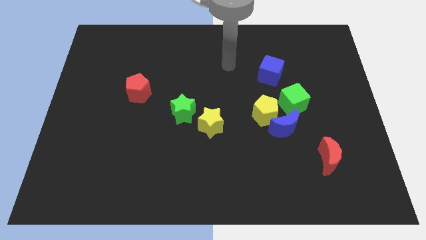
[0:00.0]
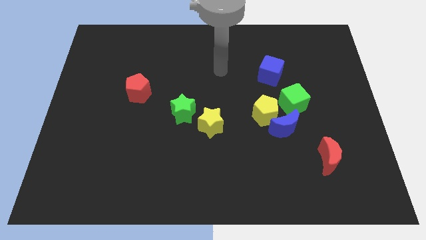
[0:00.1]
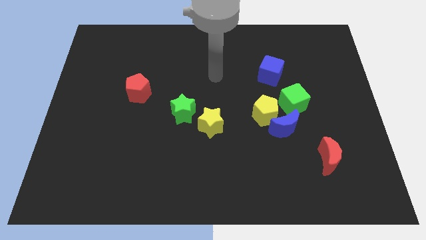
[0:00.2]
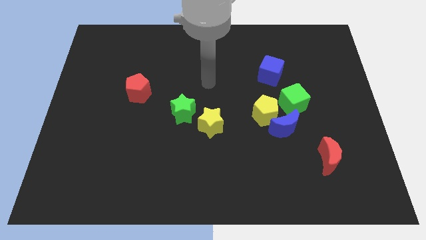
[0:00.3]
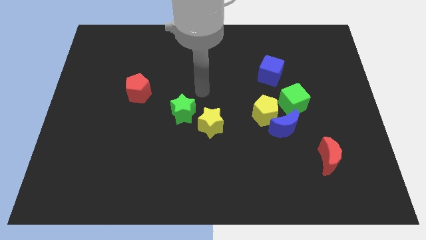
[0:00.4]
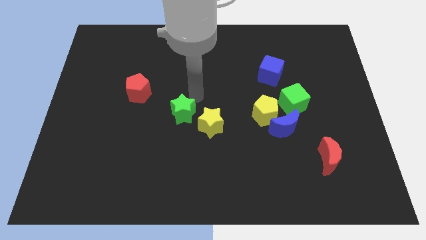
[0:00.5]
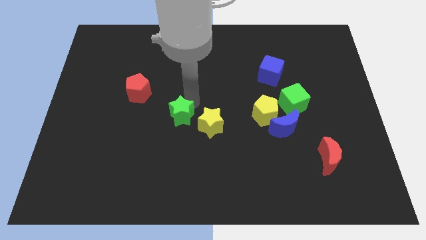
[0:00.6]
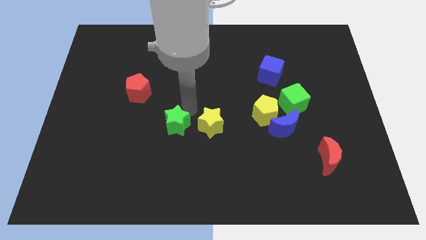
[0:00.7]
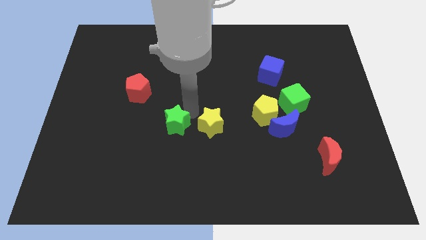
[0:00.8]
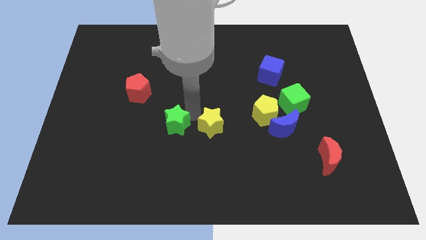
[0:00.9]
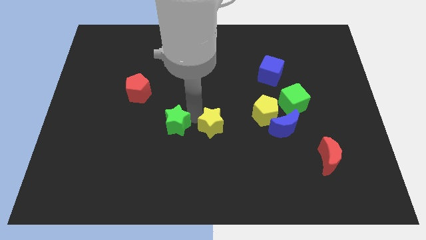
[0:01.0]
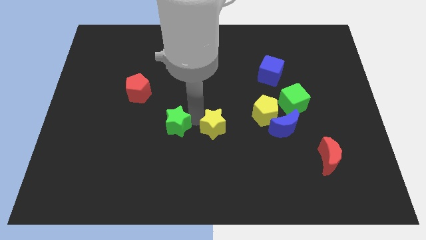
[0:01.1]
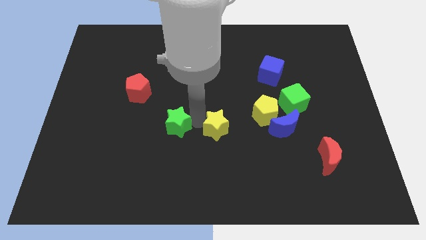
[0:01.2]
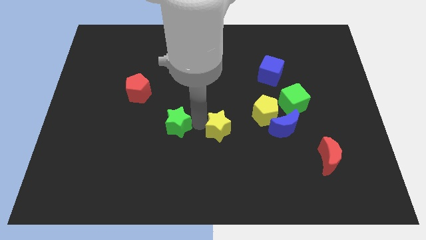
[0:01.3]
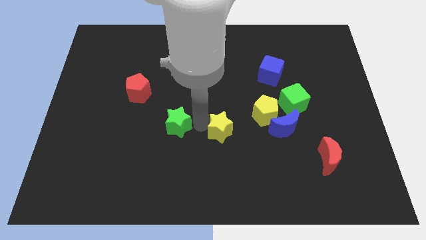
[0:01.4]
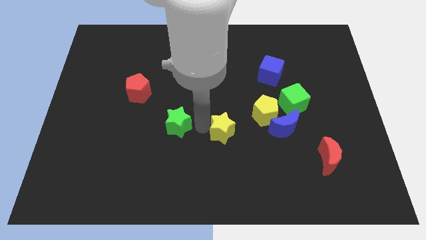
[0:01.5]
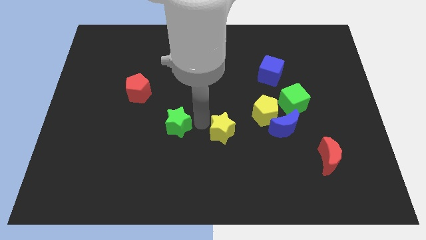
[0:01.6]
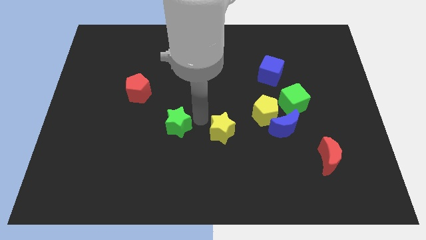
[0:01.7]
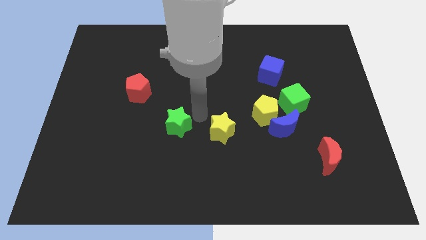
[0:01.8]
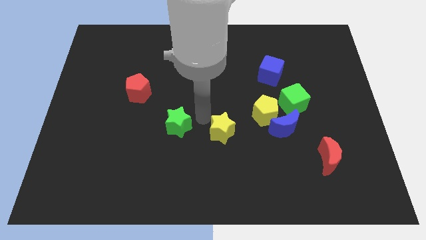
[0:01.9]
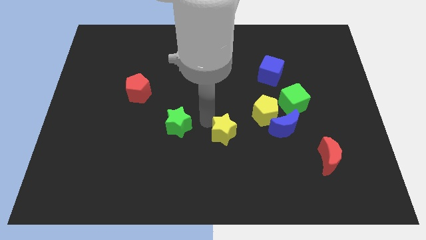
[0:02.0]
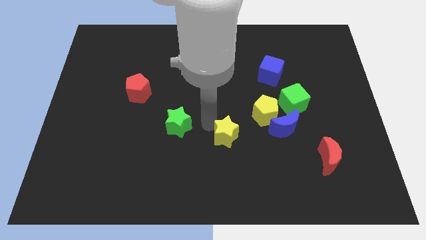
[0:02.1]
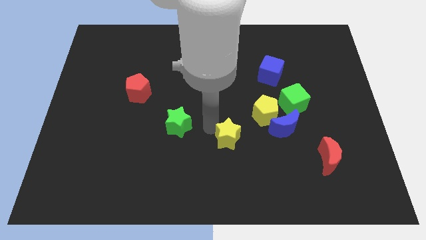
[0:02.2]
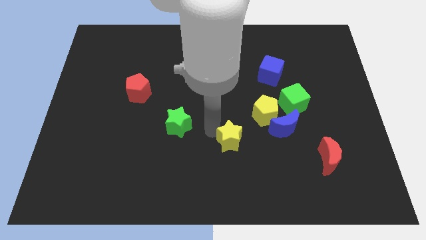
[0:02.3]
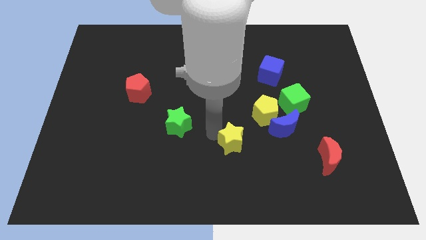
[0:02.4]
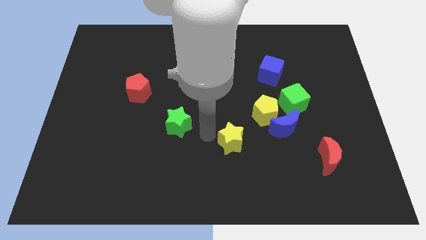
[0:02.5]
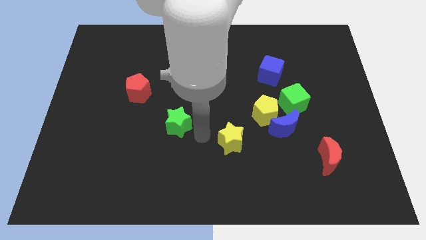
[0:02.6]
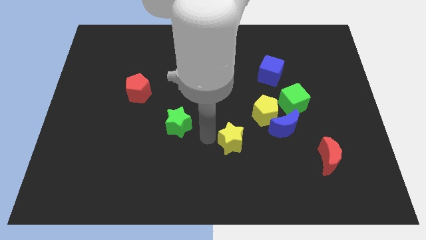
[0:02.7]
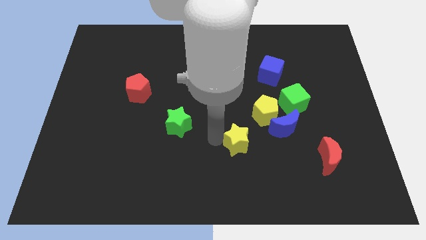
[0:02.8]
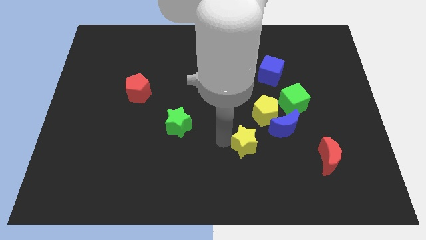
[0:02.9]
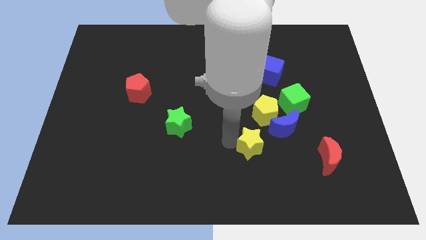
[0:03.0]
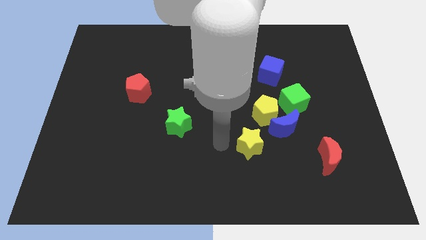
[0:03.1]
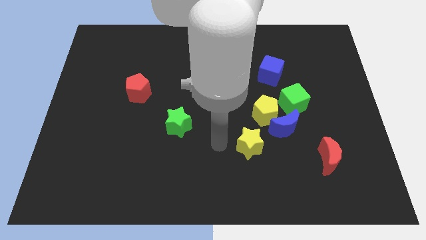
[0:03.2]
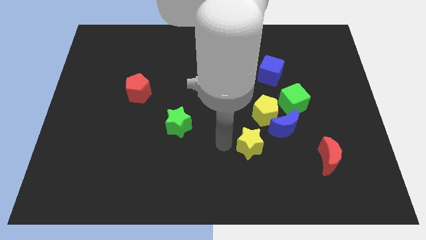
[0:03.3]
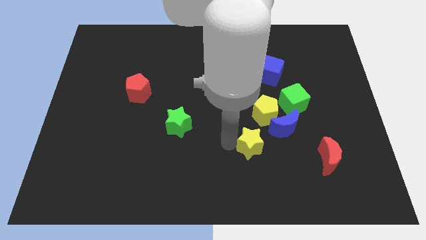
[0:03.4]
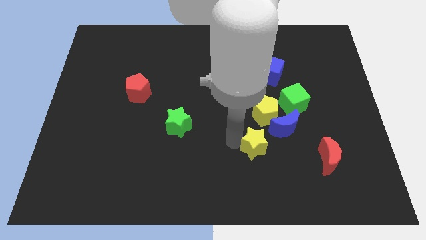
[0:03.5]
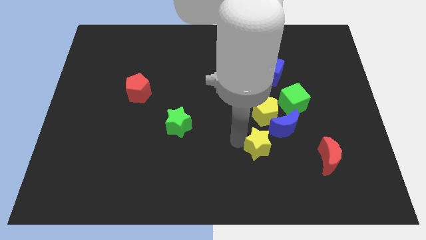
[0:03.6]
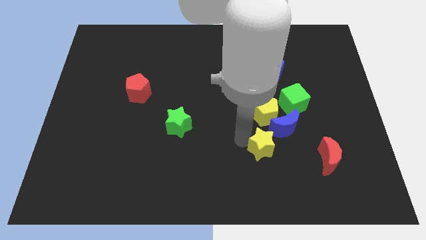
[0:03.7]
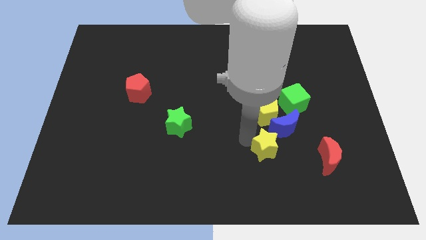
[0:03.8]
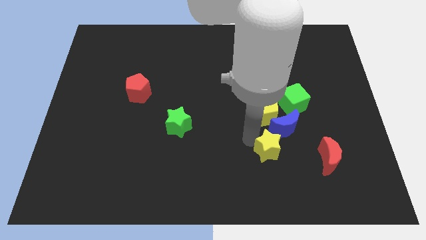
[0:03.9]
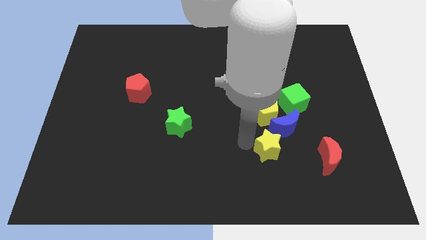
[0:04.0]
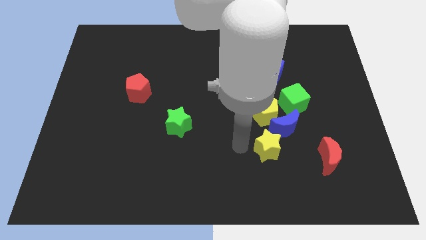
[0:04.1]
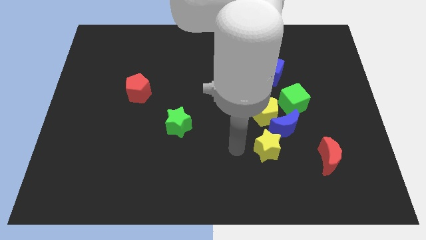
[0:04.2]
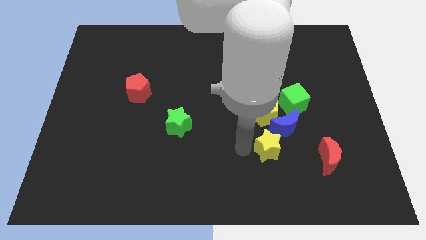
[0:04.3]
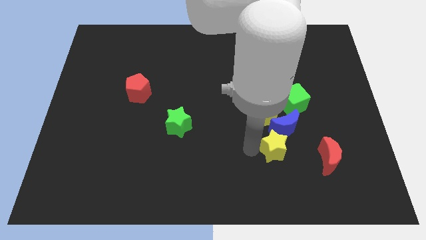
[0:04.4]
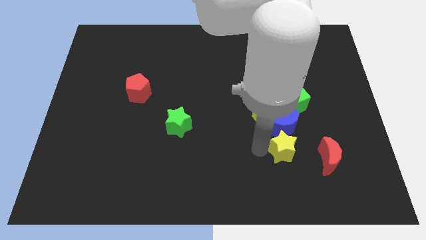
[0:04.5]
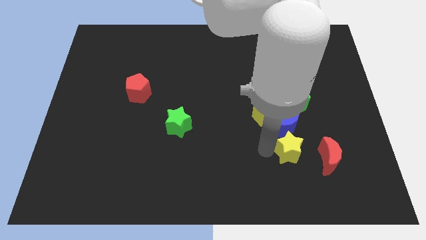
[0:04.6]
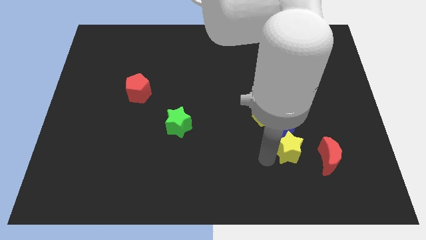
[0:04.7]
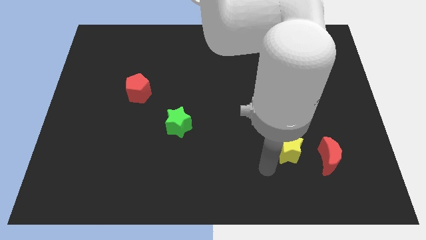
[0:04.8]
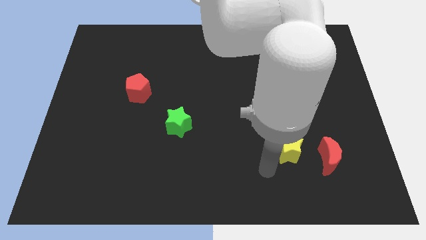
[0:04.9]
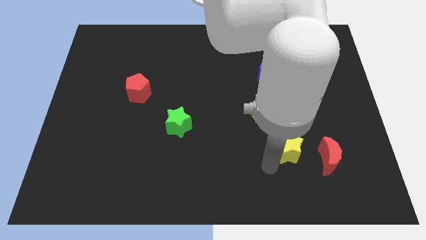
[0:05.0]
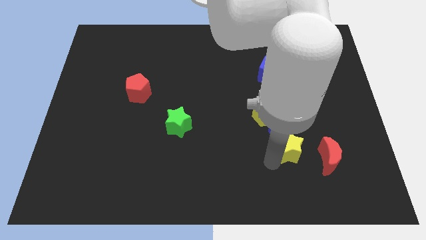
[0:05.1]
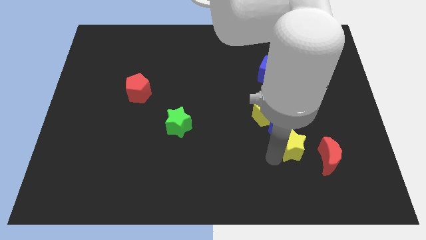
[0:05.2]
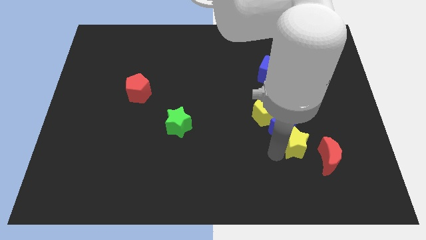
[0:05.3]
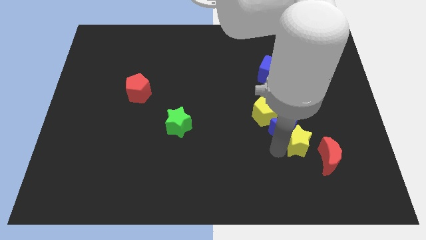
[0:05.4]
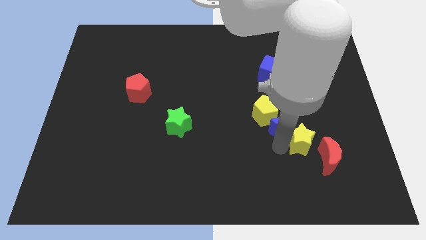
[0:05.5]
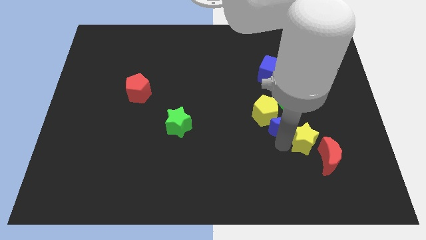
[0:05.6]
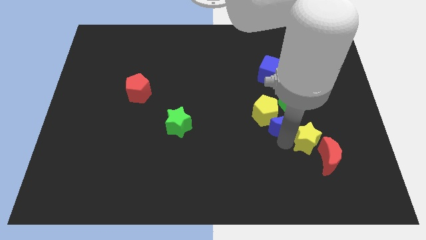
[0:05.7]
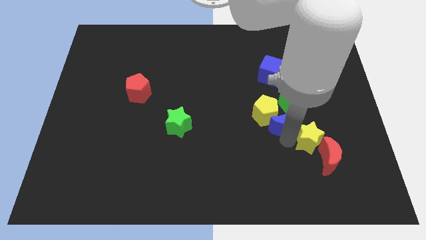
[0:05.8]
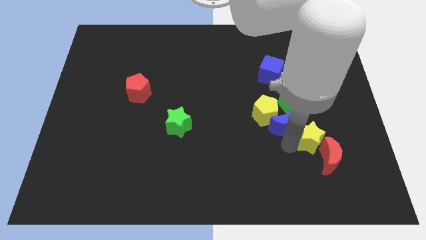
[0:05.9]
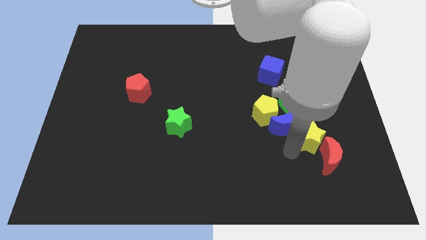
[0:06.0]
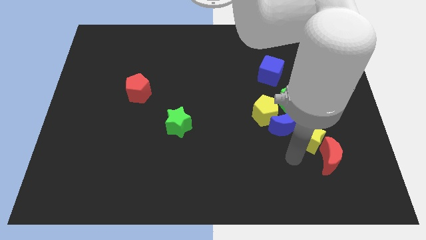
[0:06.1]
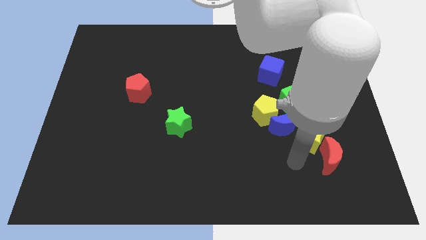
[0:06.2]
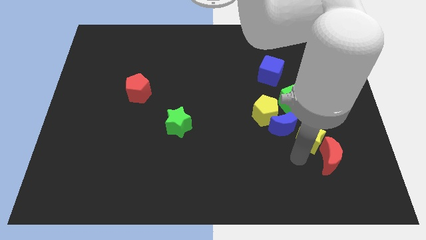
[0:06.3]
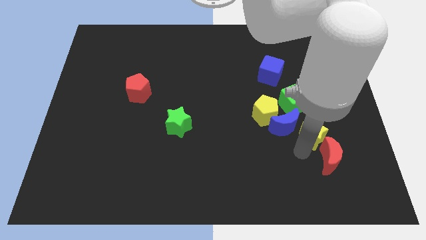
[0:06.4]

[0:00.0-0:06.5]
put the yellow star to the bottom right side of the green cube

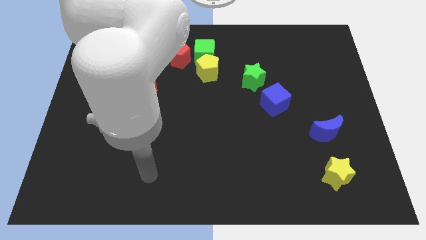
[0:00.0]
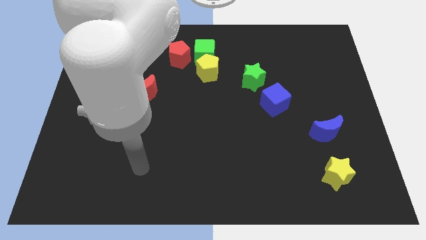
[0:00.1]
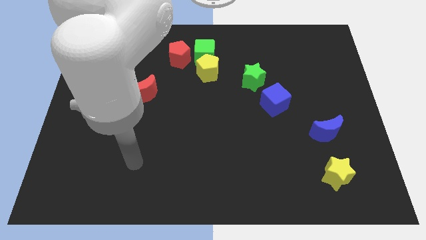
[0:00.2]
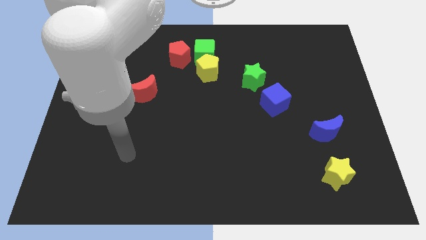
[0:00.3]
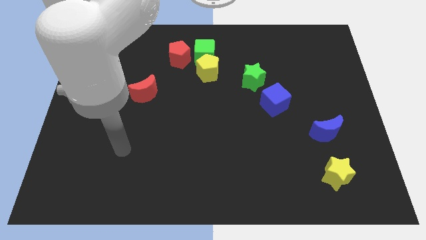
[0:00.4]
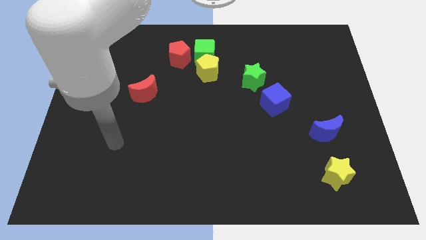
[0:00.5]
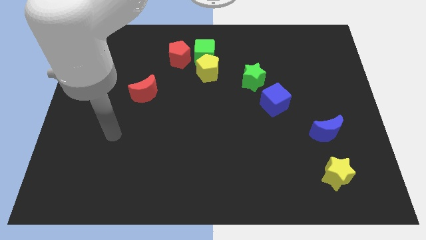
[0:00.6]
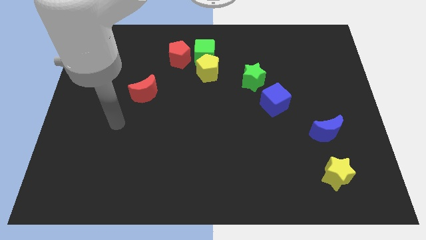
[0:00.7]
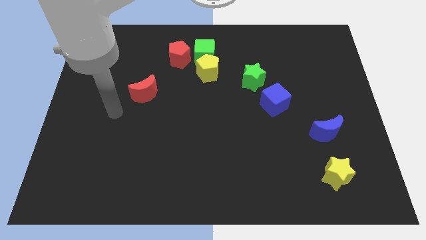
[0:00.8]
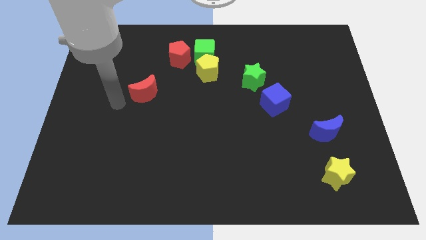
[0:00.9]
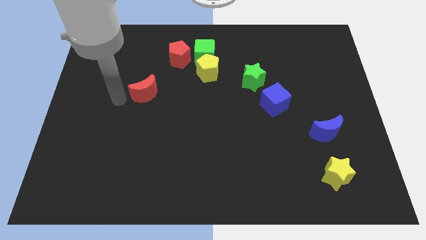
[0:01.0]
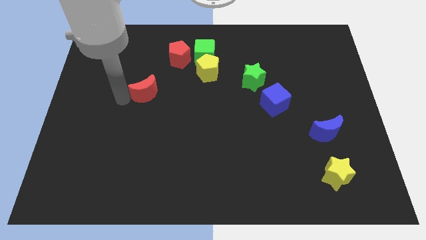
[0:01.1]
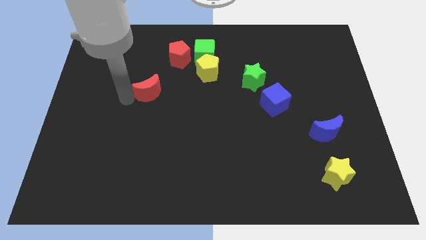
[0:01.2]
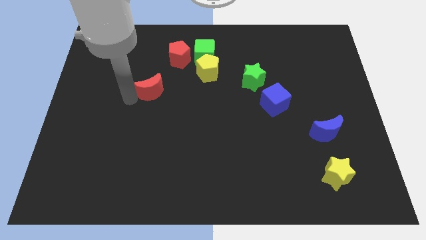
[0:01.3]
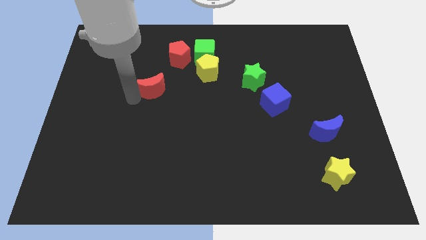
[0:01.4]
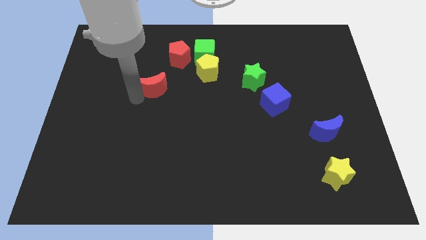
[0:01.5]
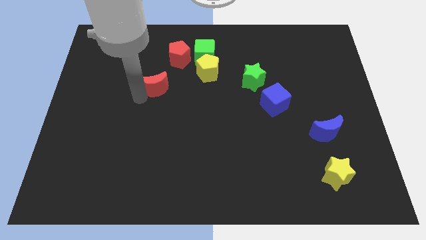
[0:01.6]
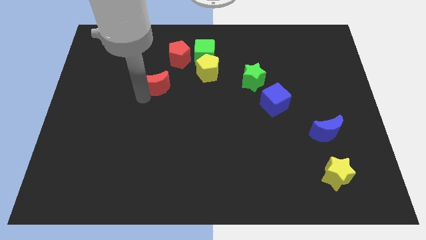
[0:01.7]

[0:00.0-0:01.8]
move the red moon to the bottom side of the red pentagon
